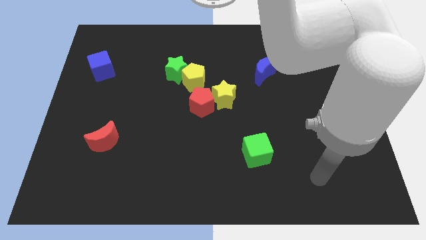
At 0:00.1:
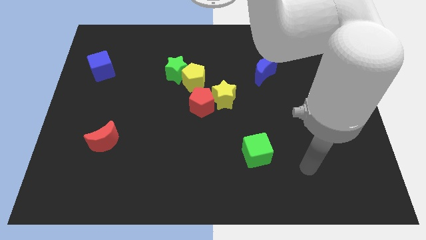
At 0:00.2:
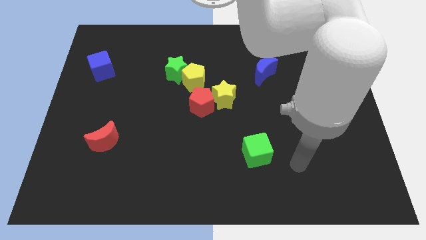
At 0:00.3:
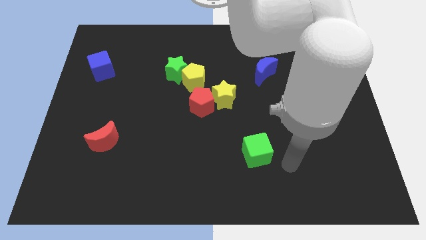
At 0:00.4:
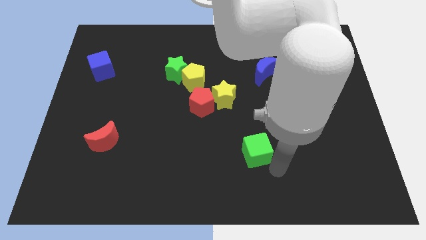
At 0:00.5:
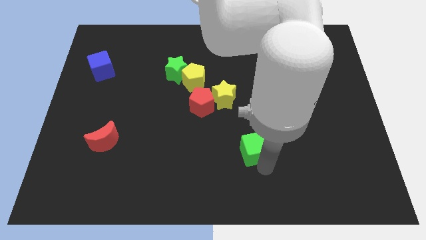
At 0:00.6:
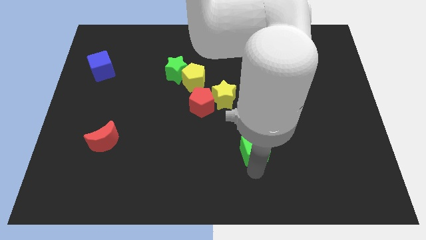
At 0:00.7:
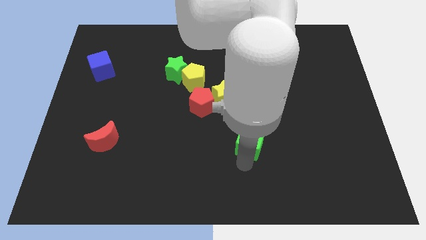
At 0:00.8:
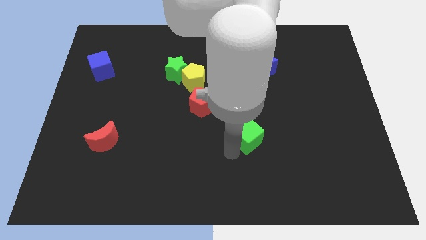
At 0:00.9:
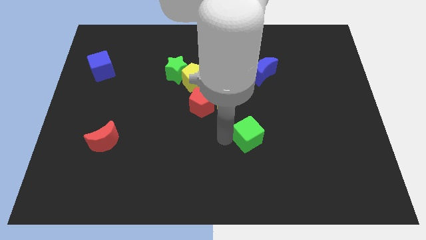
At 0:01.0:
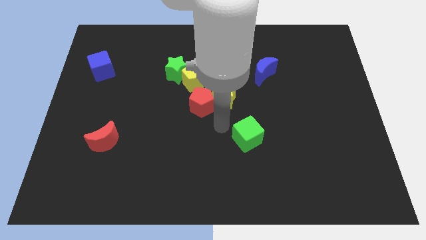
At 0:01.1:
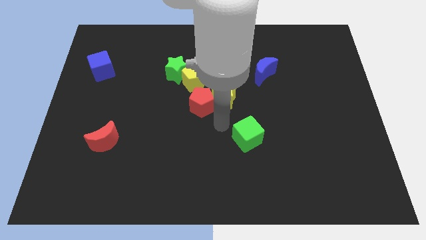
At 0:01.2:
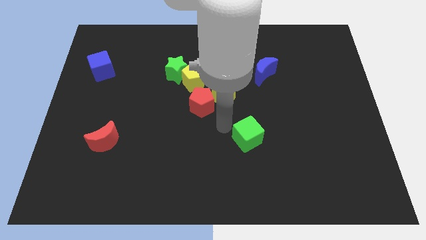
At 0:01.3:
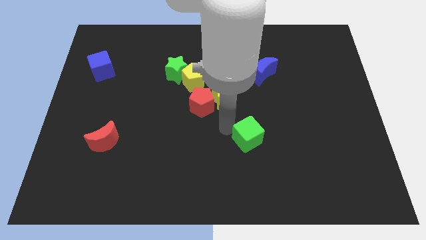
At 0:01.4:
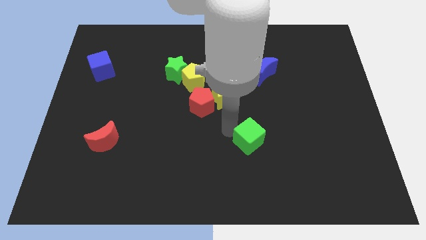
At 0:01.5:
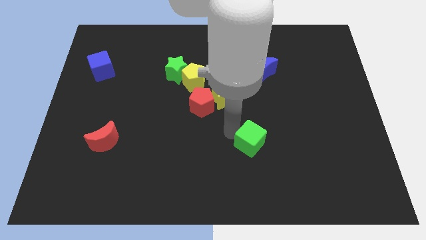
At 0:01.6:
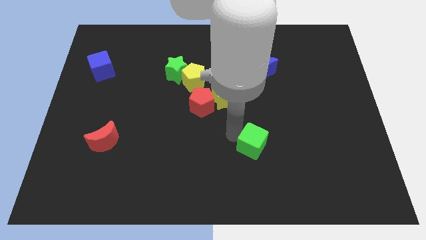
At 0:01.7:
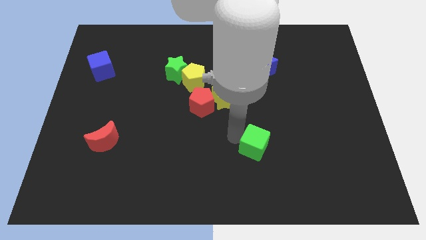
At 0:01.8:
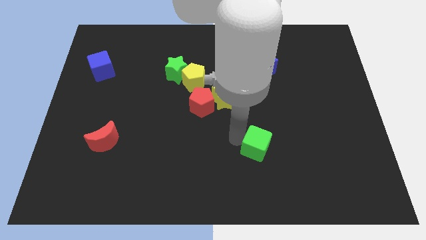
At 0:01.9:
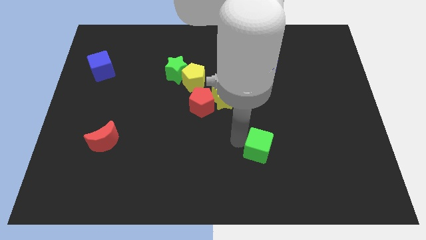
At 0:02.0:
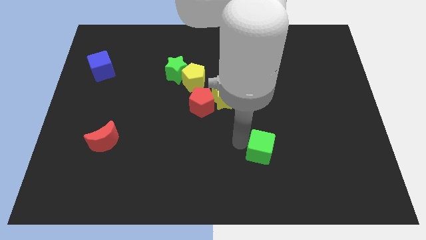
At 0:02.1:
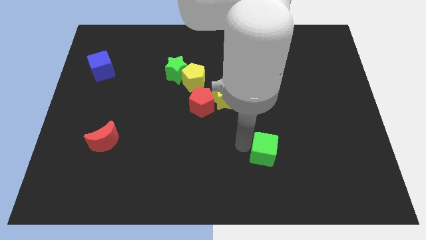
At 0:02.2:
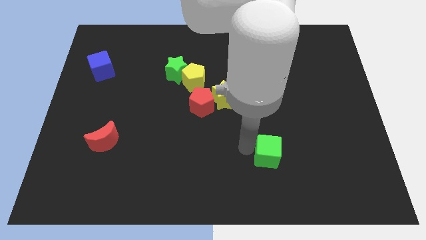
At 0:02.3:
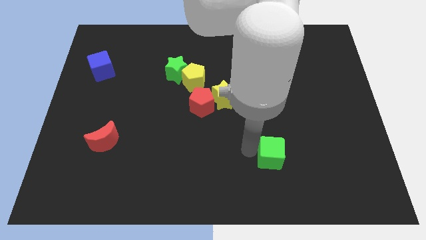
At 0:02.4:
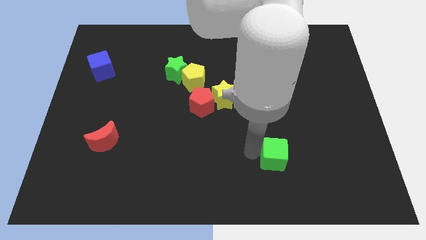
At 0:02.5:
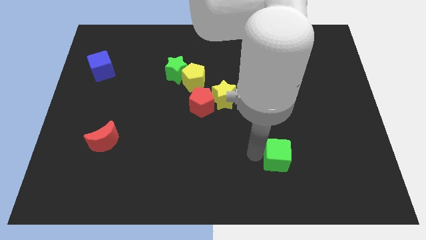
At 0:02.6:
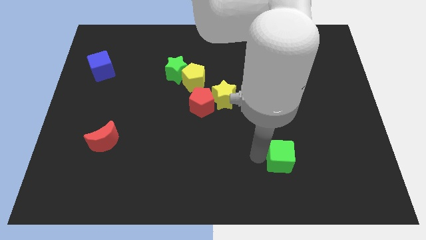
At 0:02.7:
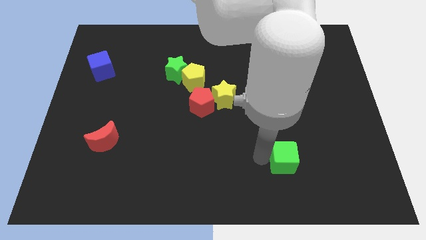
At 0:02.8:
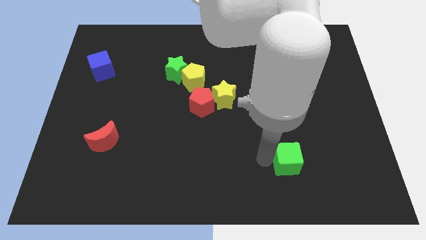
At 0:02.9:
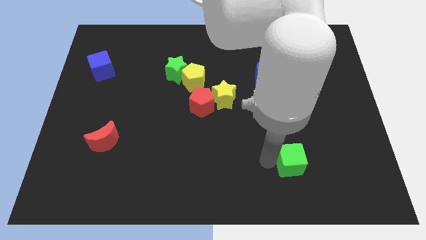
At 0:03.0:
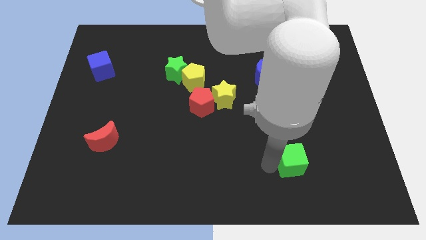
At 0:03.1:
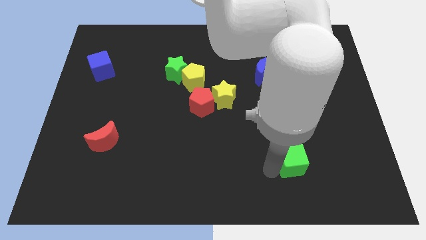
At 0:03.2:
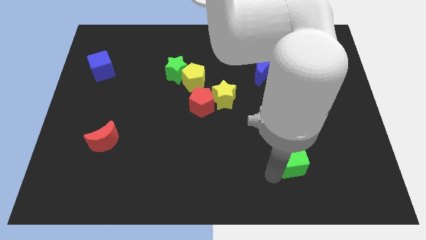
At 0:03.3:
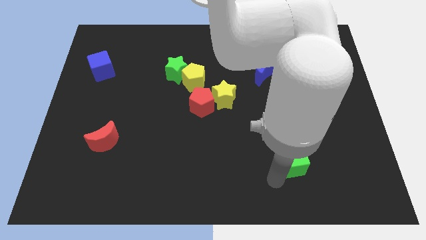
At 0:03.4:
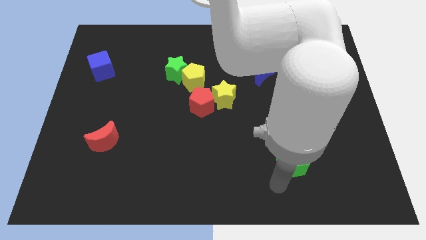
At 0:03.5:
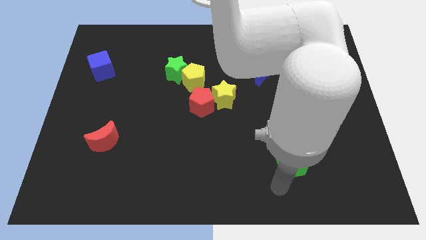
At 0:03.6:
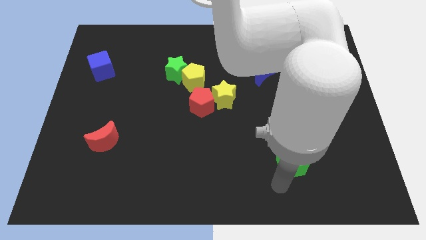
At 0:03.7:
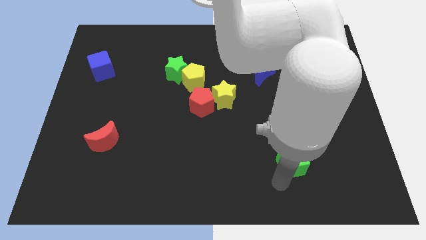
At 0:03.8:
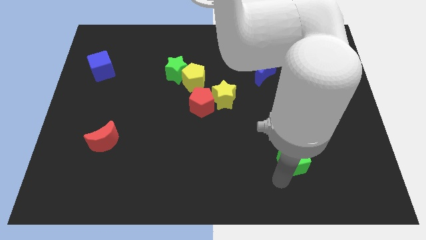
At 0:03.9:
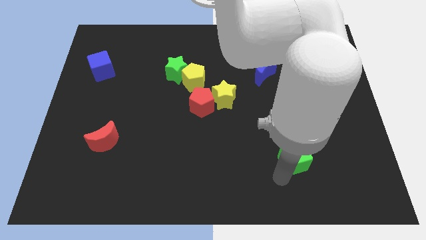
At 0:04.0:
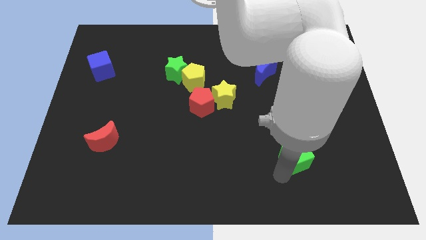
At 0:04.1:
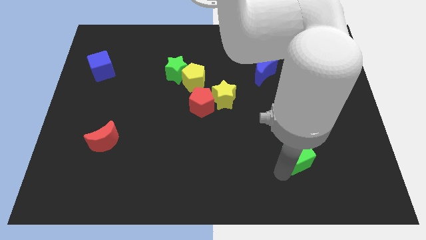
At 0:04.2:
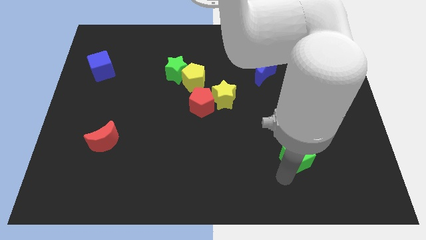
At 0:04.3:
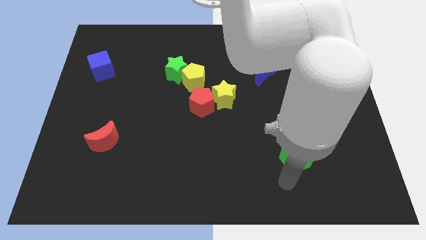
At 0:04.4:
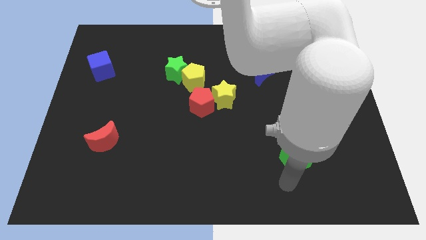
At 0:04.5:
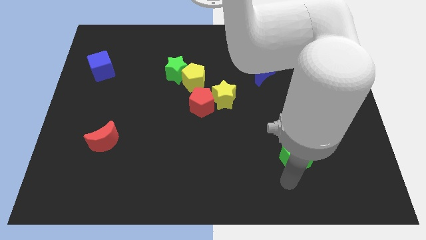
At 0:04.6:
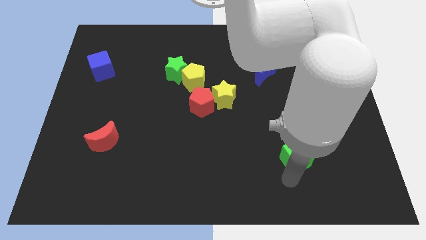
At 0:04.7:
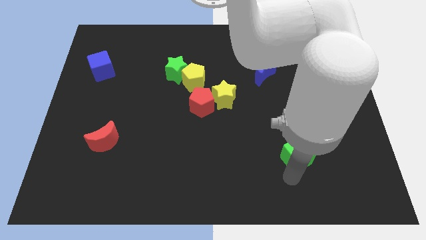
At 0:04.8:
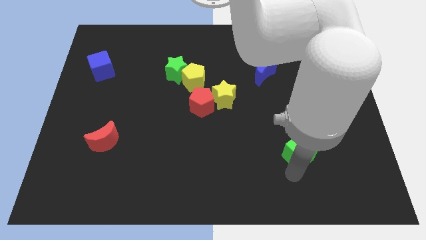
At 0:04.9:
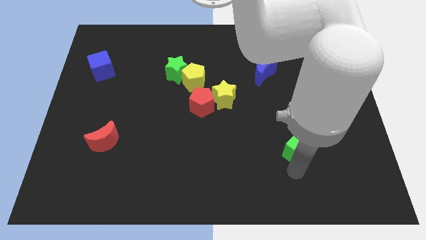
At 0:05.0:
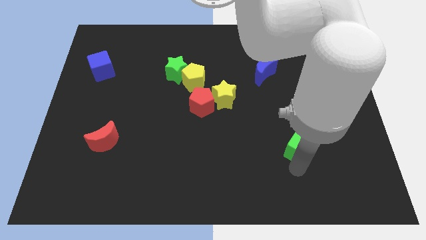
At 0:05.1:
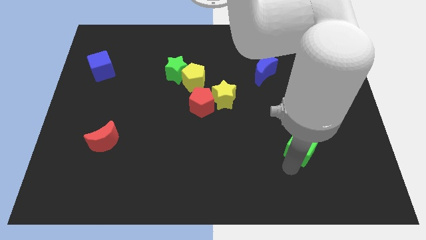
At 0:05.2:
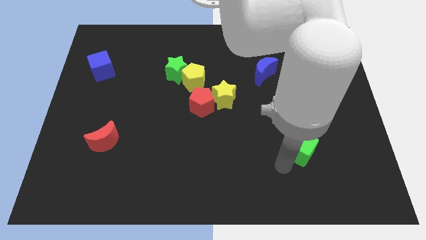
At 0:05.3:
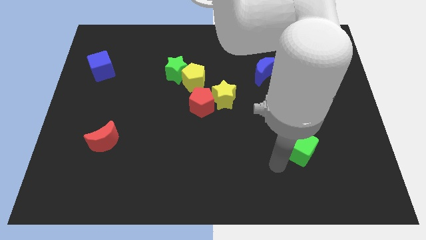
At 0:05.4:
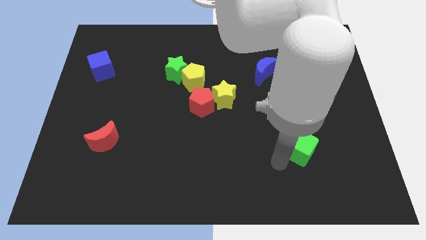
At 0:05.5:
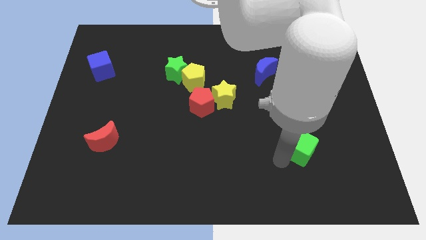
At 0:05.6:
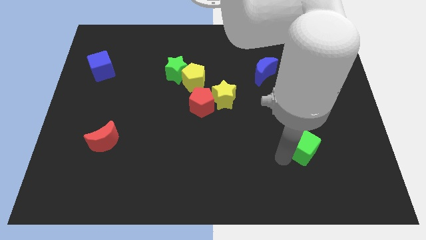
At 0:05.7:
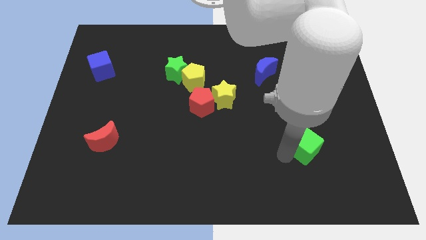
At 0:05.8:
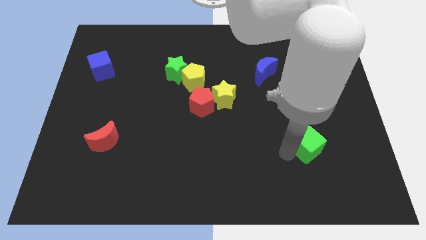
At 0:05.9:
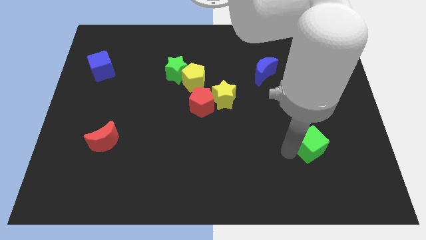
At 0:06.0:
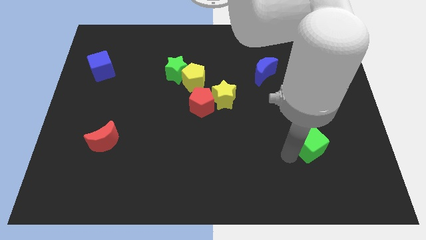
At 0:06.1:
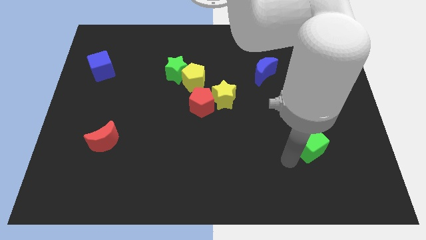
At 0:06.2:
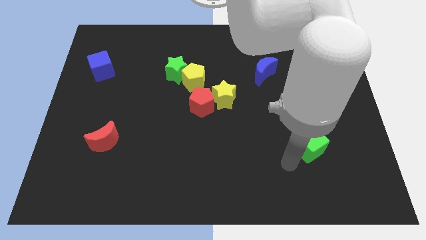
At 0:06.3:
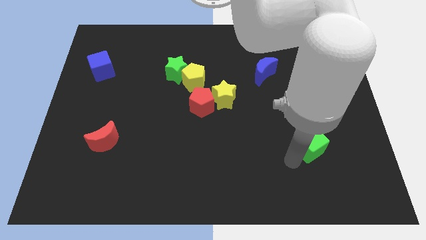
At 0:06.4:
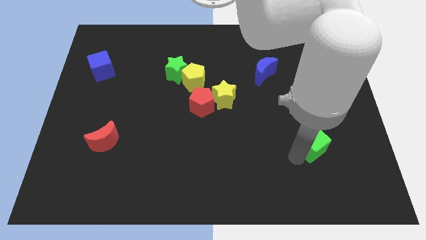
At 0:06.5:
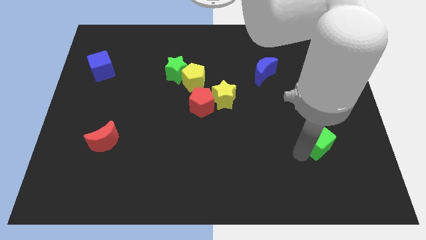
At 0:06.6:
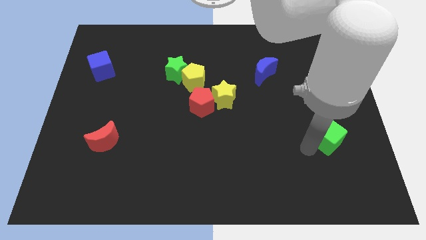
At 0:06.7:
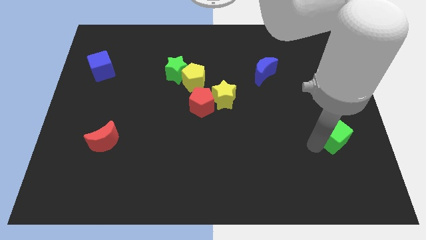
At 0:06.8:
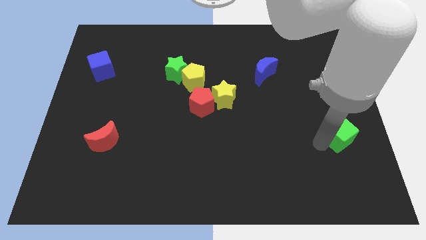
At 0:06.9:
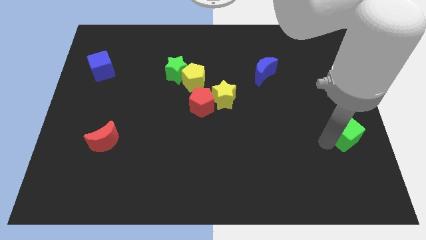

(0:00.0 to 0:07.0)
push the green cube to the right side of the board

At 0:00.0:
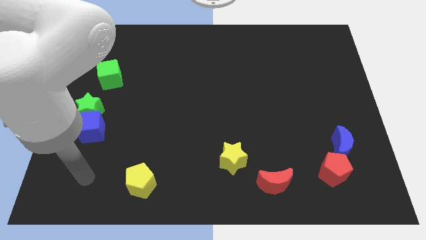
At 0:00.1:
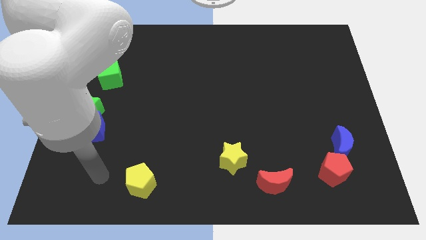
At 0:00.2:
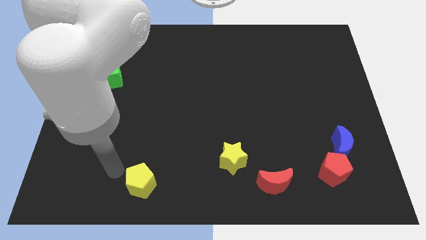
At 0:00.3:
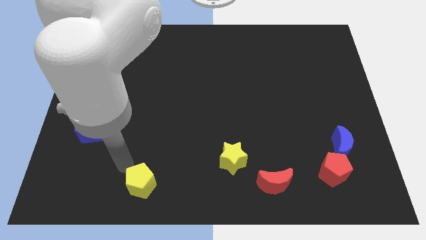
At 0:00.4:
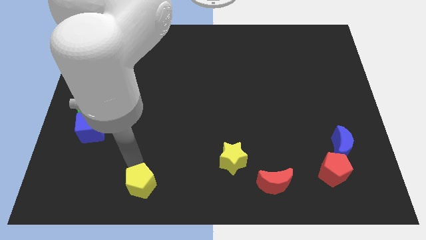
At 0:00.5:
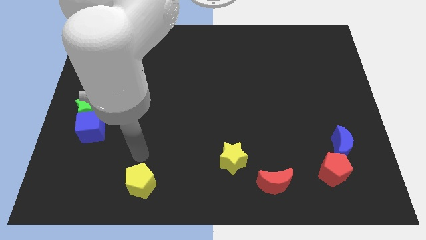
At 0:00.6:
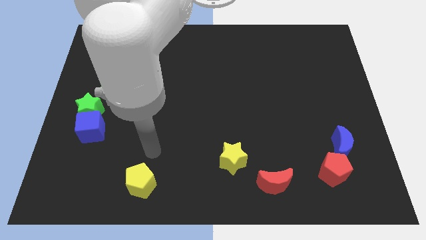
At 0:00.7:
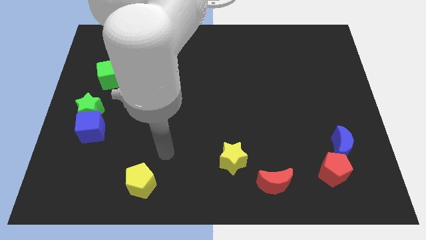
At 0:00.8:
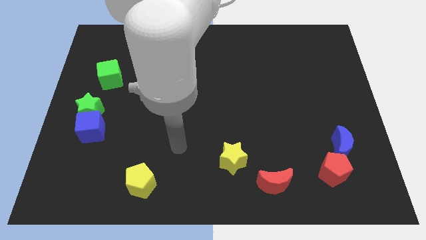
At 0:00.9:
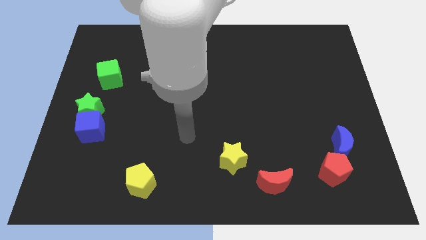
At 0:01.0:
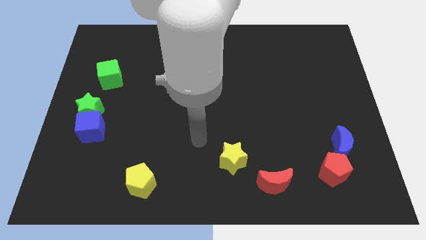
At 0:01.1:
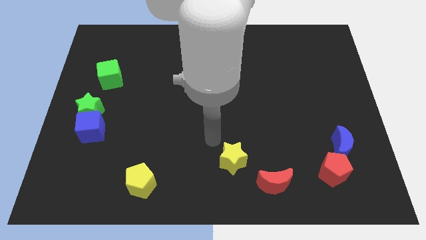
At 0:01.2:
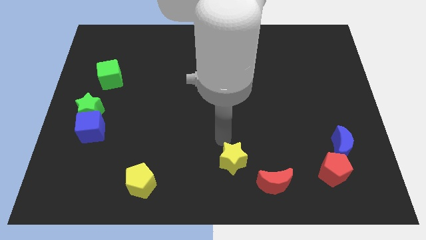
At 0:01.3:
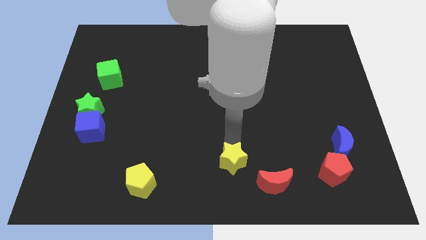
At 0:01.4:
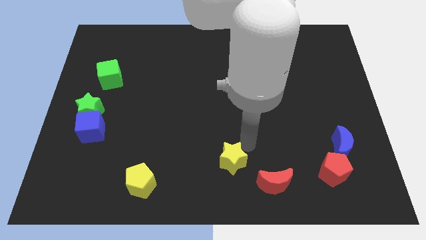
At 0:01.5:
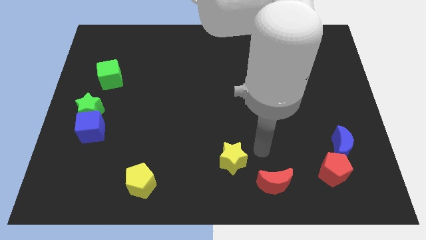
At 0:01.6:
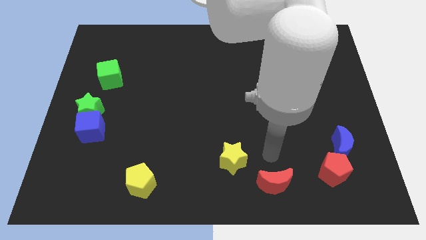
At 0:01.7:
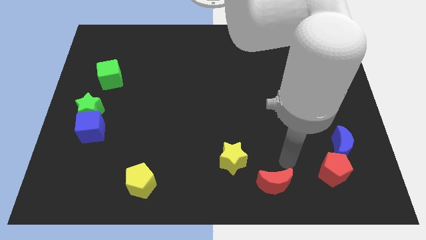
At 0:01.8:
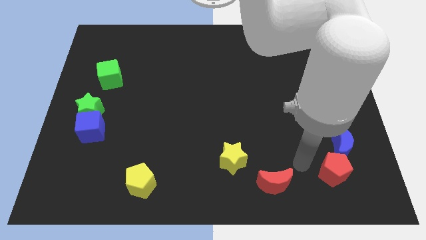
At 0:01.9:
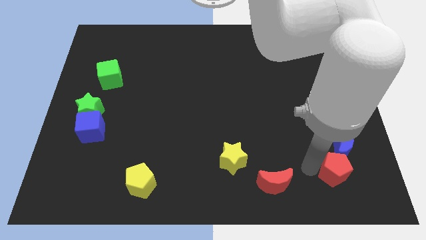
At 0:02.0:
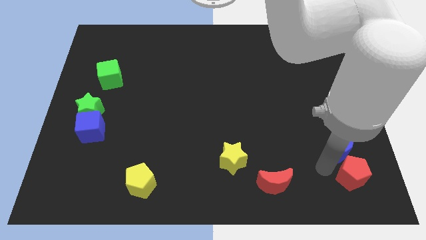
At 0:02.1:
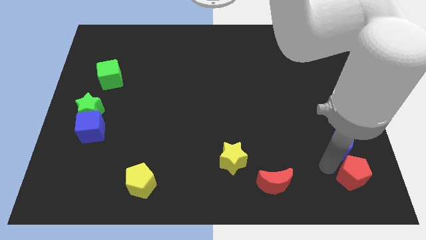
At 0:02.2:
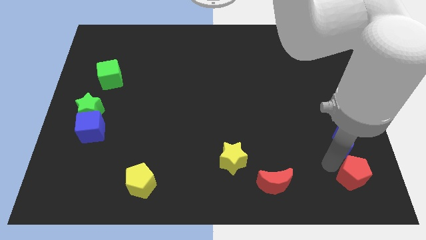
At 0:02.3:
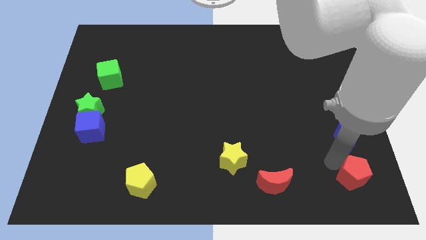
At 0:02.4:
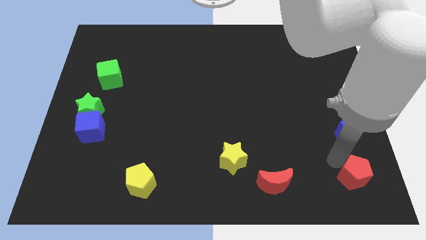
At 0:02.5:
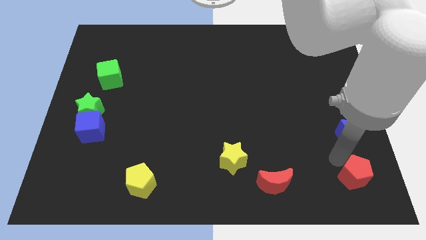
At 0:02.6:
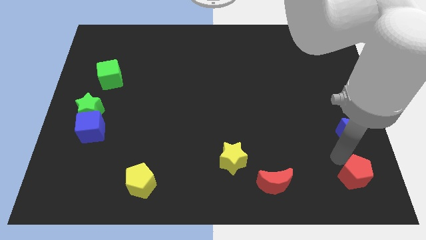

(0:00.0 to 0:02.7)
put the blue moon to the right side
